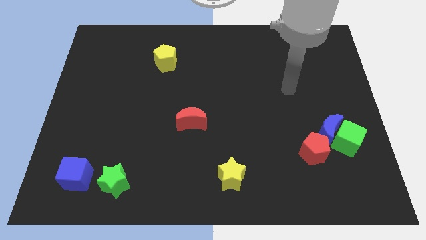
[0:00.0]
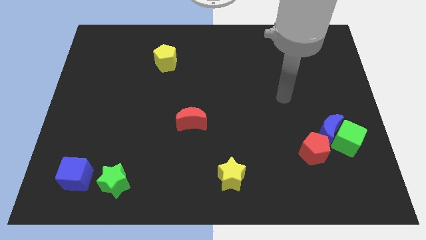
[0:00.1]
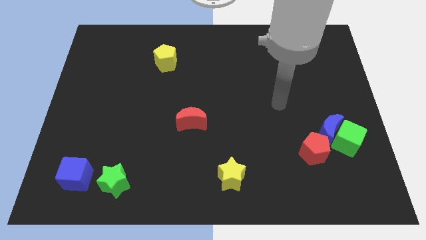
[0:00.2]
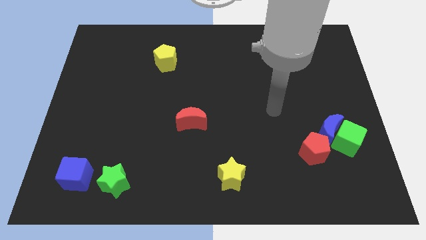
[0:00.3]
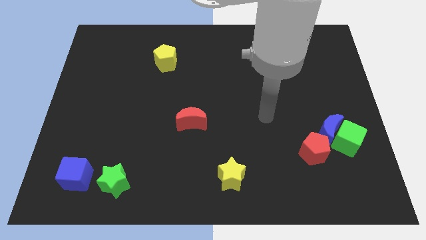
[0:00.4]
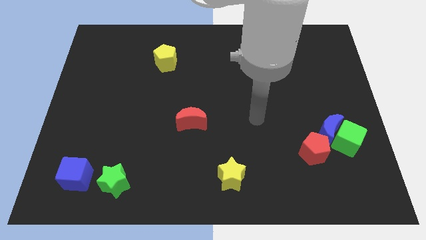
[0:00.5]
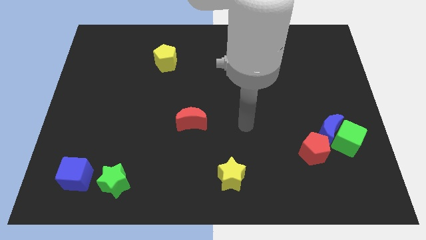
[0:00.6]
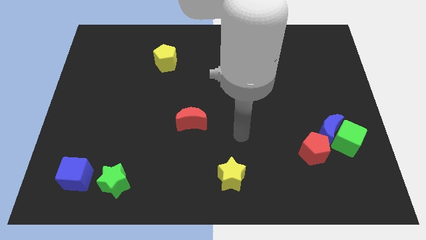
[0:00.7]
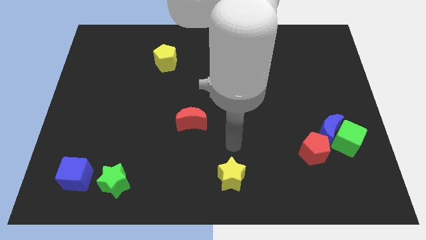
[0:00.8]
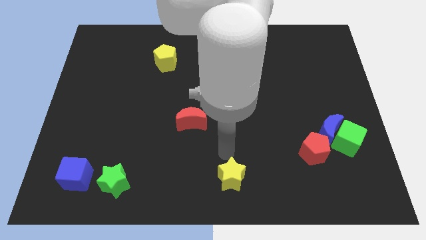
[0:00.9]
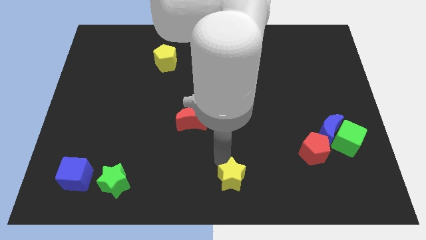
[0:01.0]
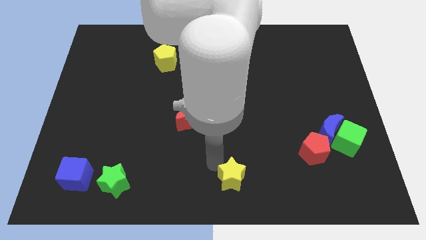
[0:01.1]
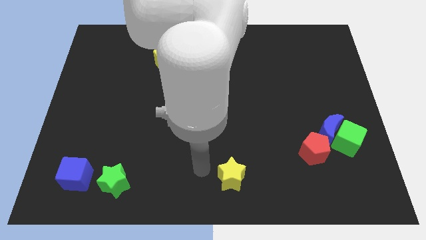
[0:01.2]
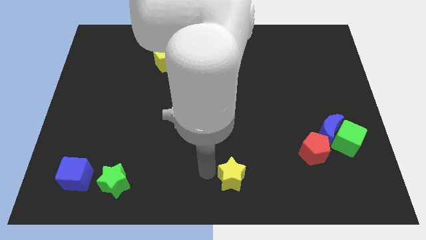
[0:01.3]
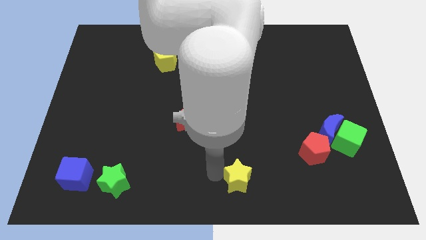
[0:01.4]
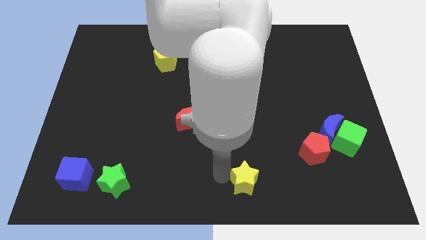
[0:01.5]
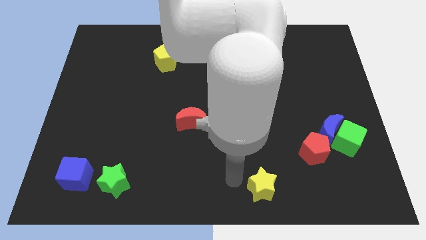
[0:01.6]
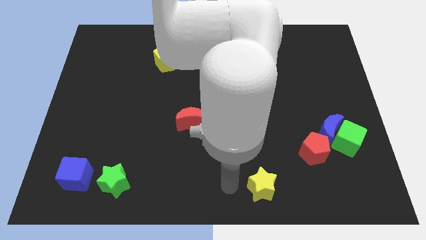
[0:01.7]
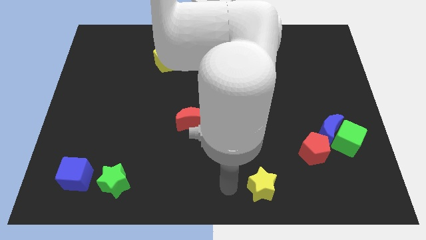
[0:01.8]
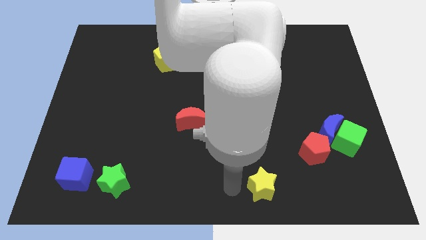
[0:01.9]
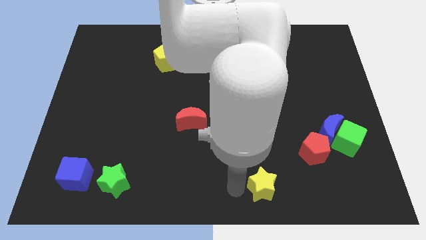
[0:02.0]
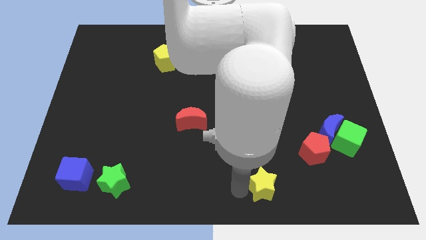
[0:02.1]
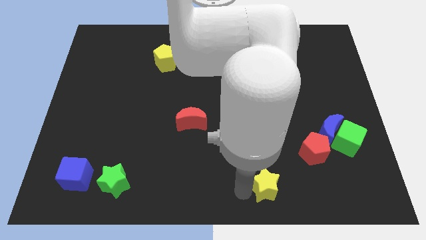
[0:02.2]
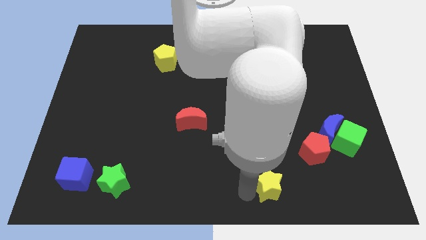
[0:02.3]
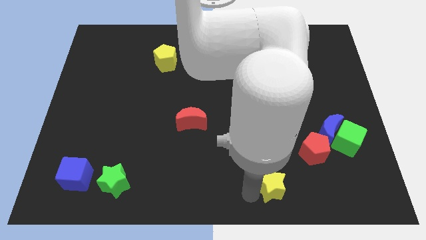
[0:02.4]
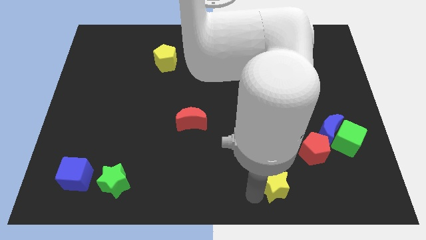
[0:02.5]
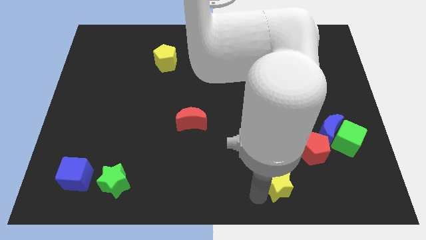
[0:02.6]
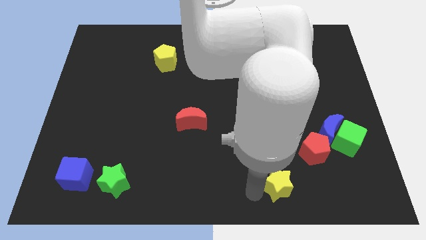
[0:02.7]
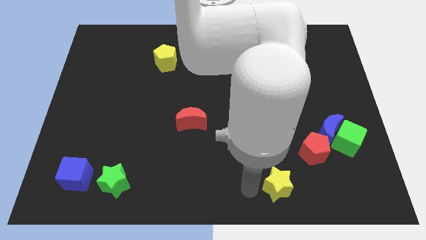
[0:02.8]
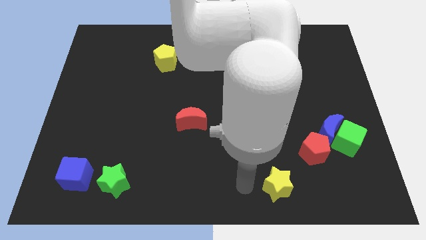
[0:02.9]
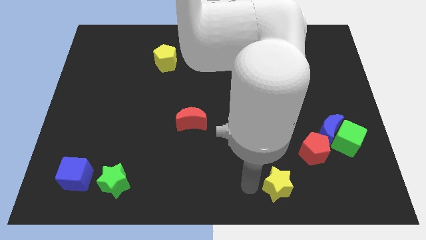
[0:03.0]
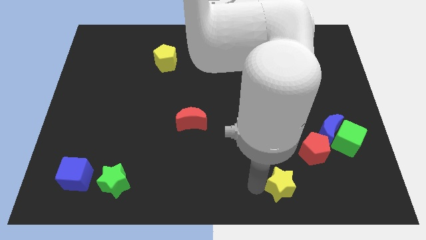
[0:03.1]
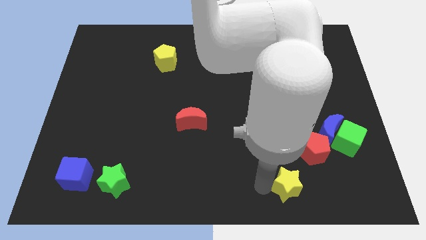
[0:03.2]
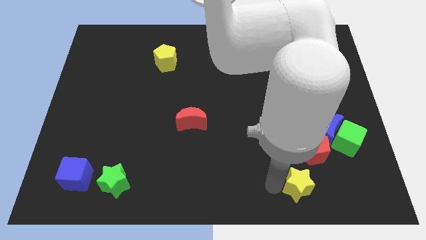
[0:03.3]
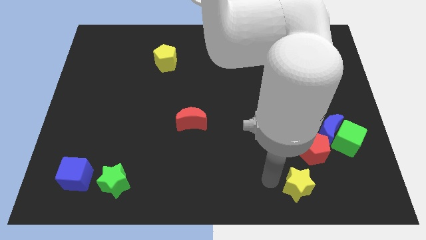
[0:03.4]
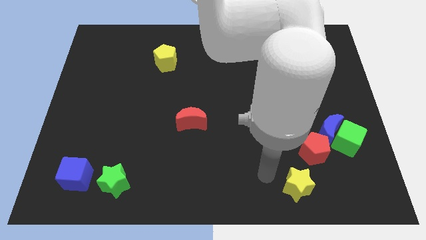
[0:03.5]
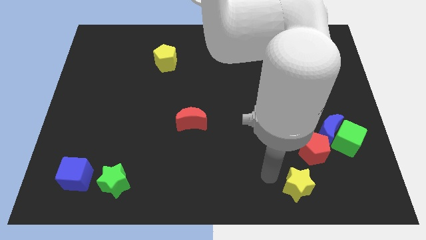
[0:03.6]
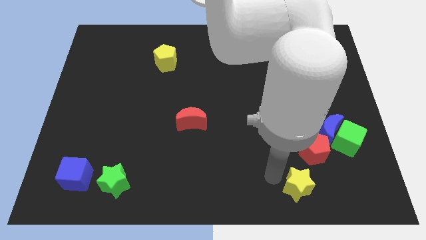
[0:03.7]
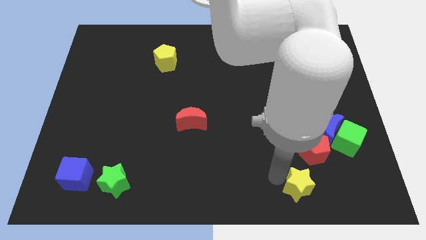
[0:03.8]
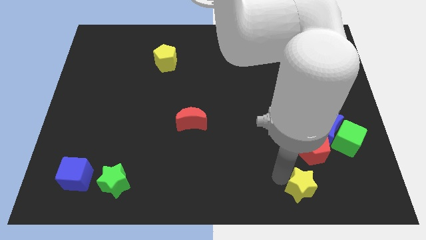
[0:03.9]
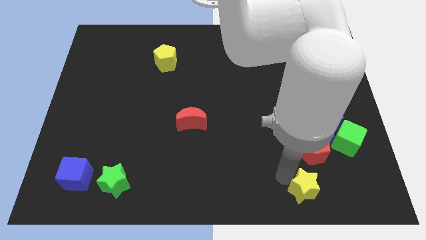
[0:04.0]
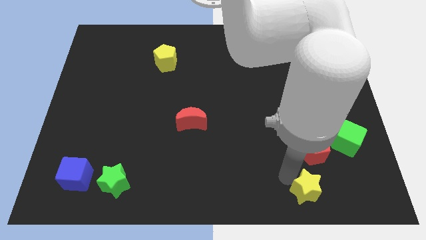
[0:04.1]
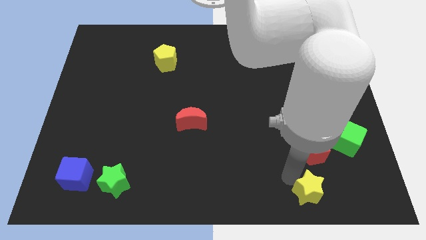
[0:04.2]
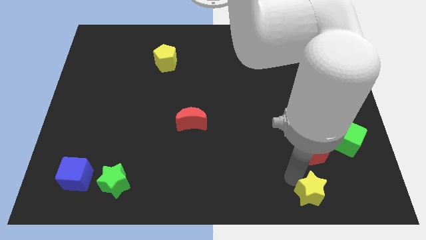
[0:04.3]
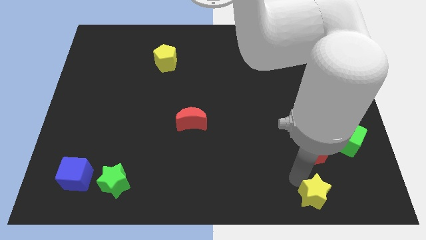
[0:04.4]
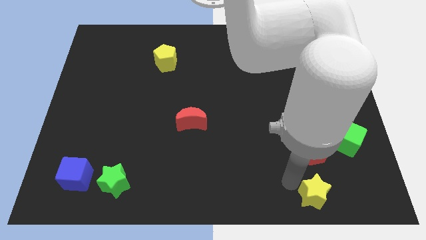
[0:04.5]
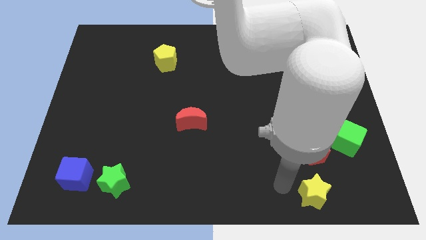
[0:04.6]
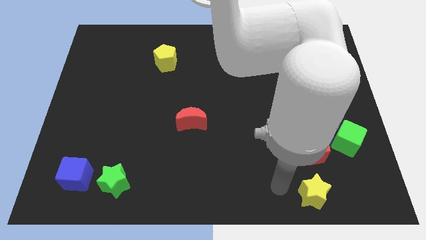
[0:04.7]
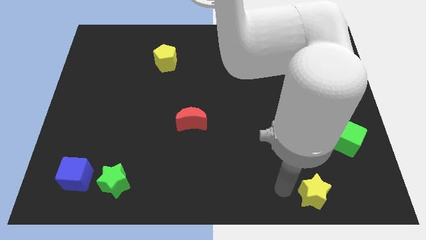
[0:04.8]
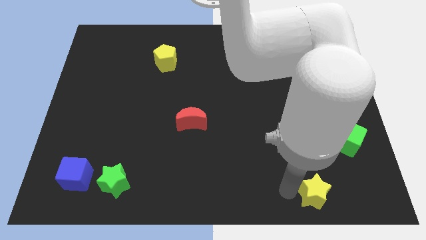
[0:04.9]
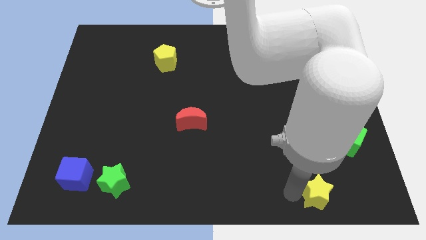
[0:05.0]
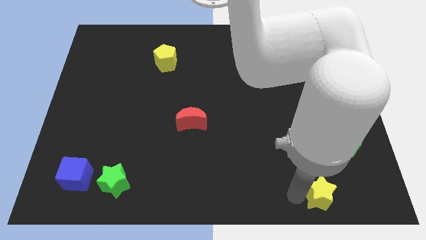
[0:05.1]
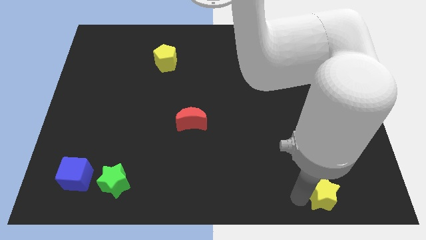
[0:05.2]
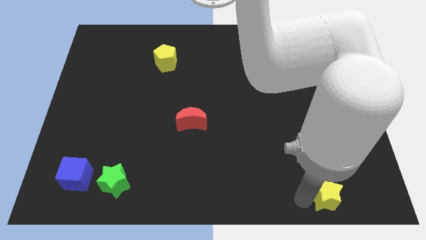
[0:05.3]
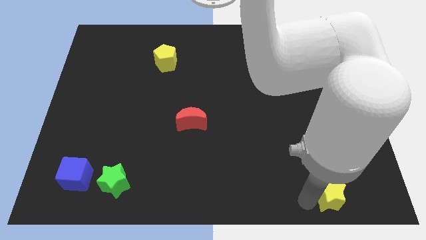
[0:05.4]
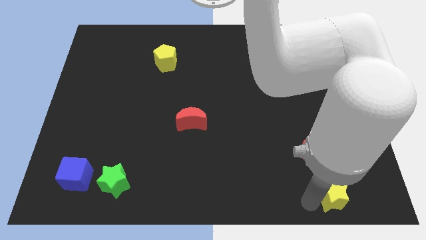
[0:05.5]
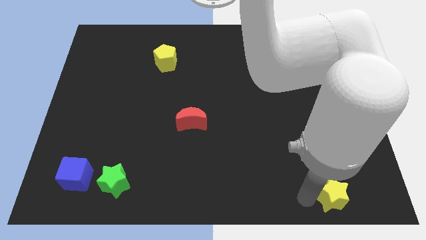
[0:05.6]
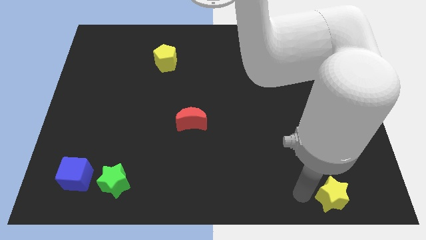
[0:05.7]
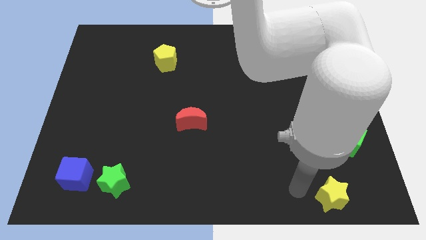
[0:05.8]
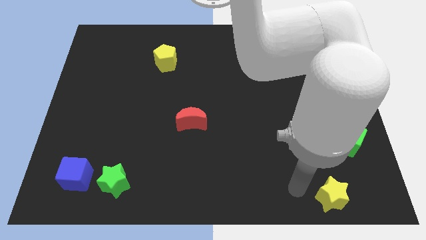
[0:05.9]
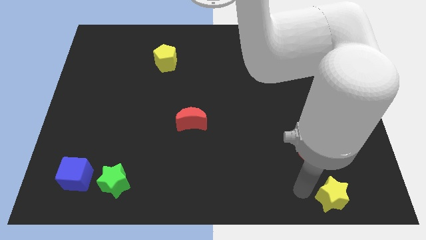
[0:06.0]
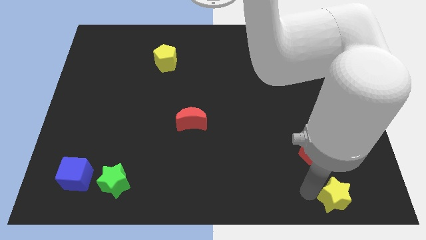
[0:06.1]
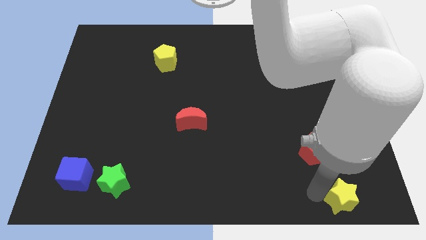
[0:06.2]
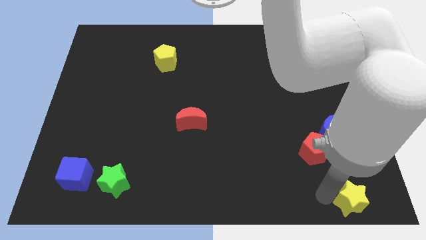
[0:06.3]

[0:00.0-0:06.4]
put the yellow star to the bottom right
